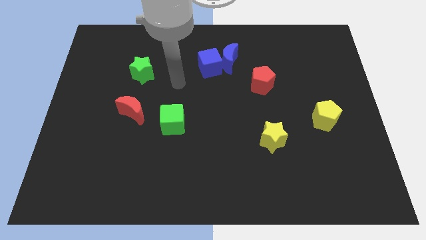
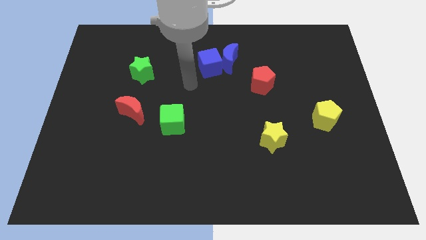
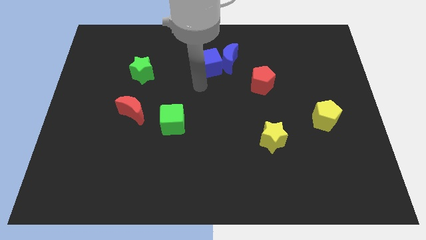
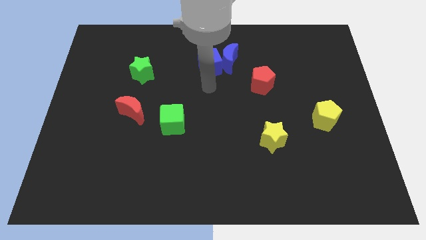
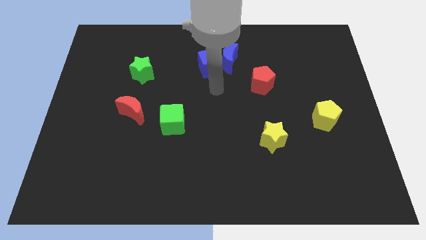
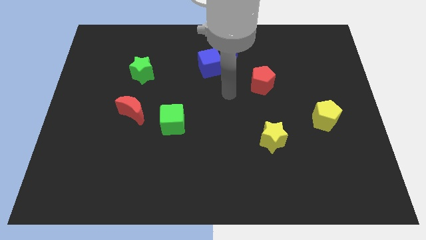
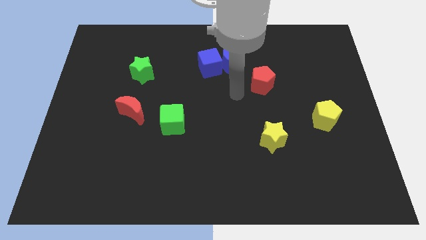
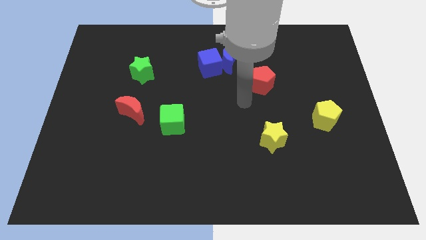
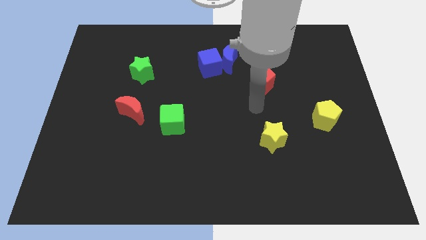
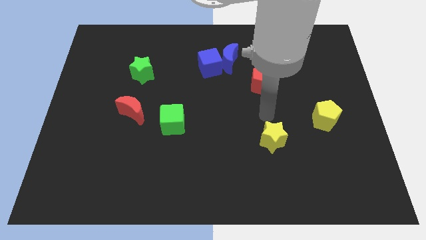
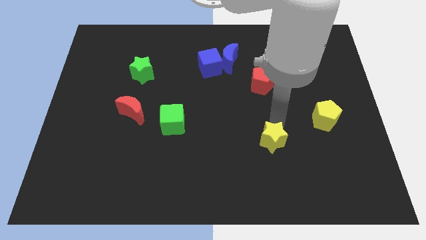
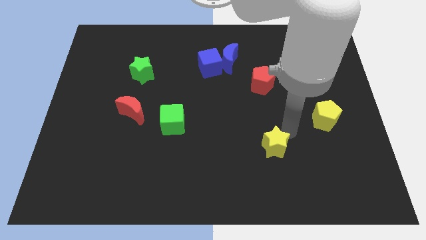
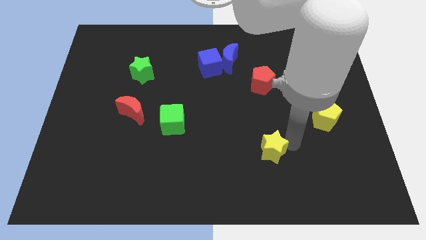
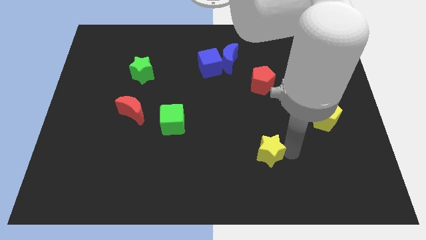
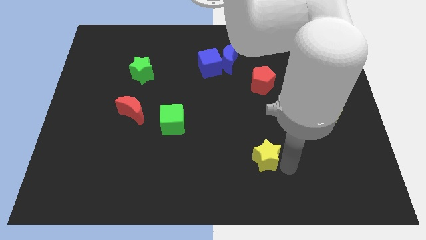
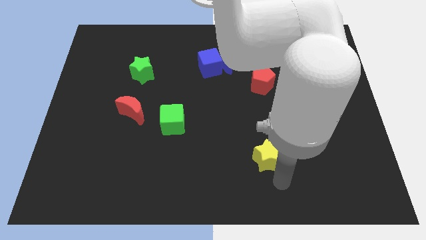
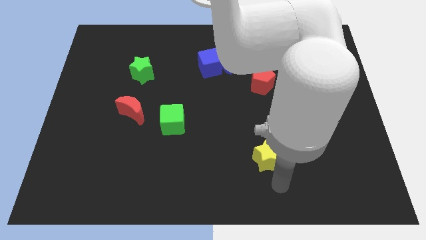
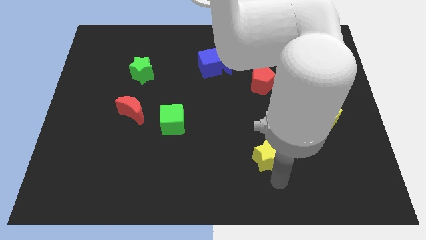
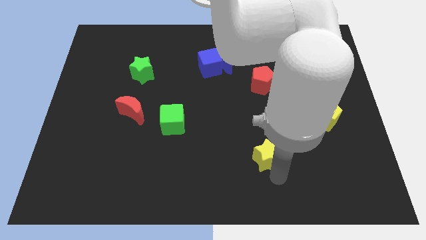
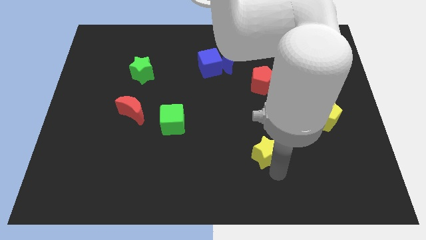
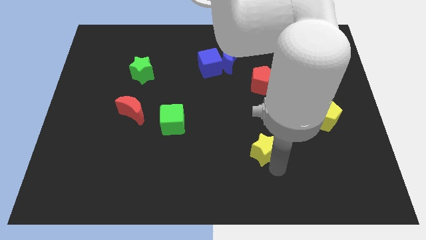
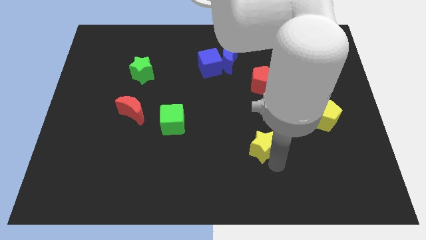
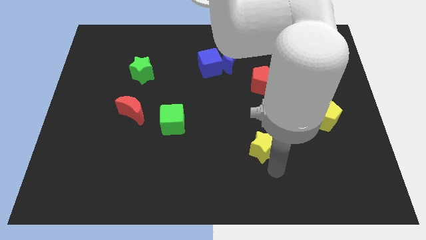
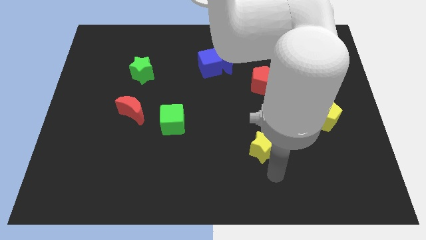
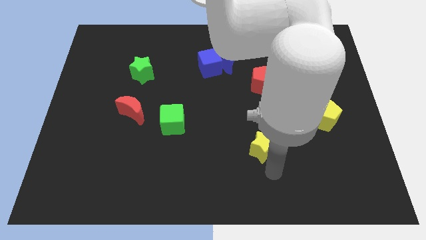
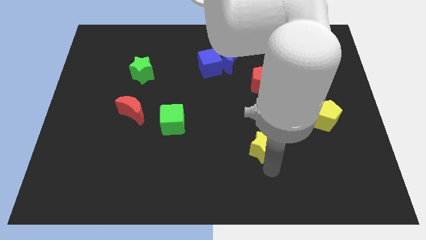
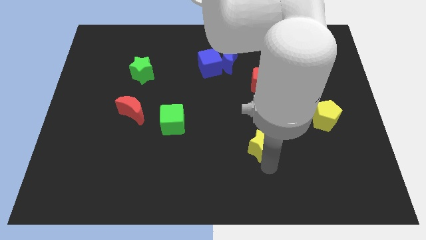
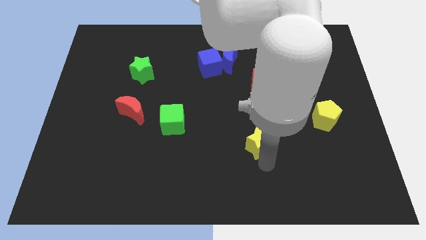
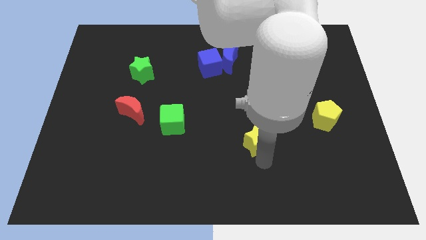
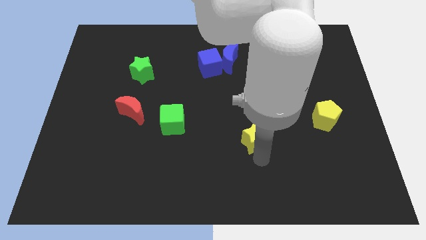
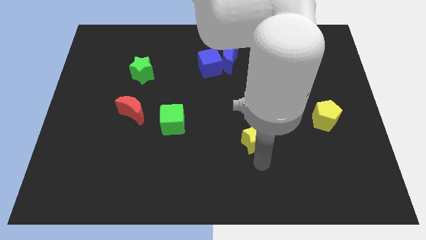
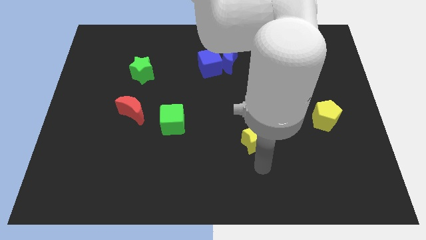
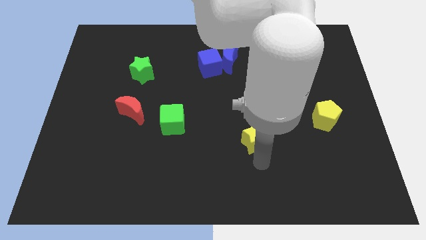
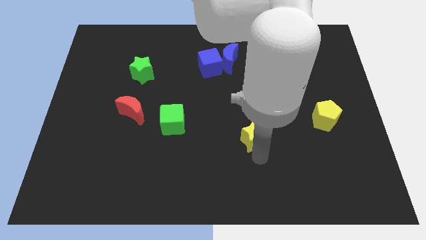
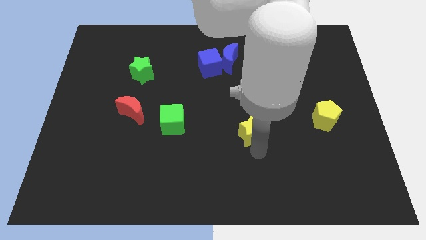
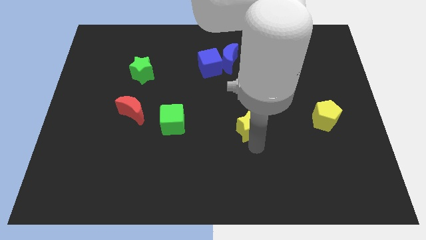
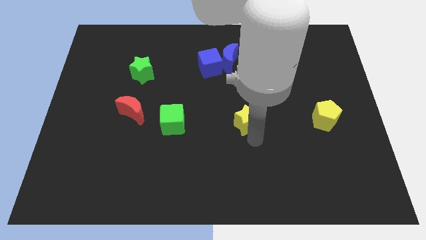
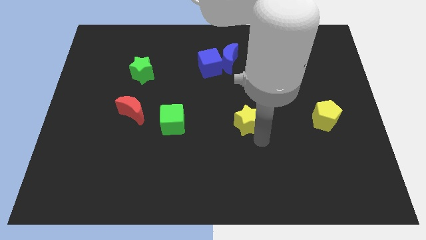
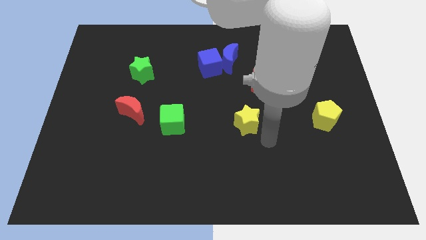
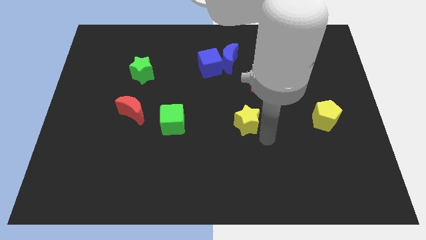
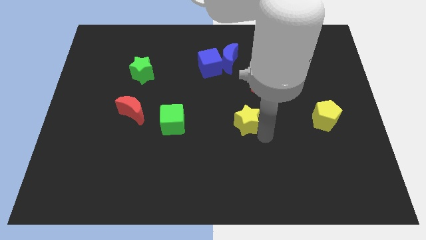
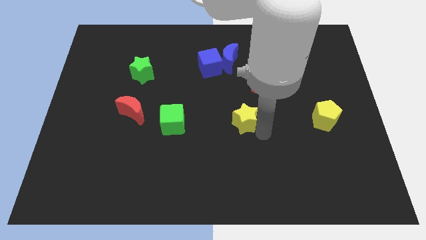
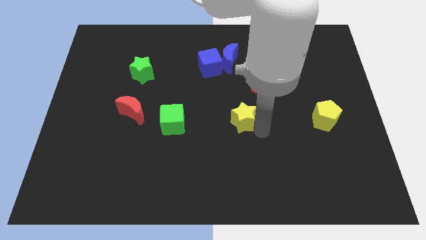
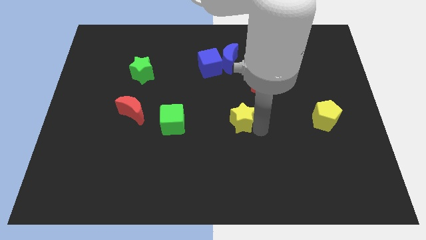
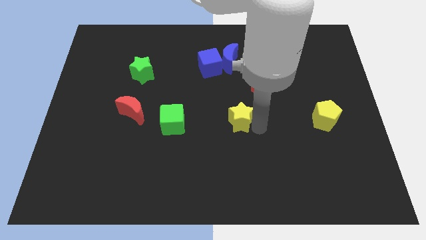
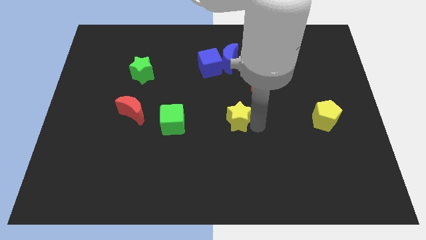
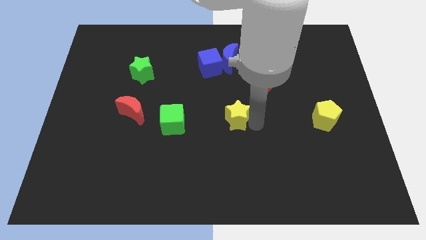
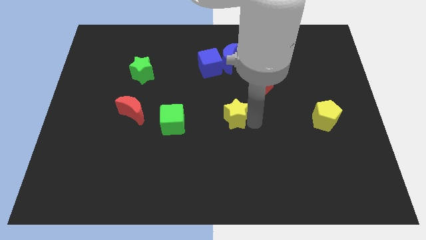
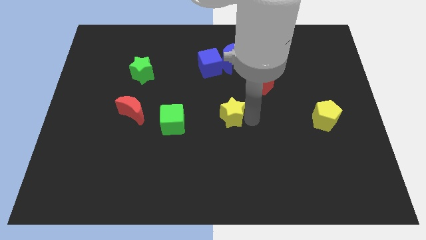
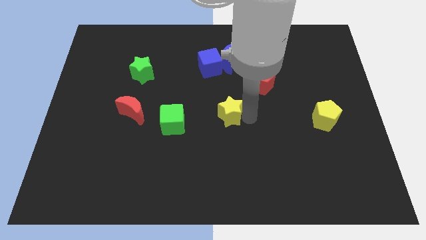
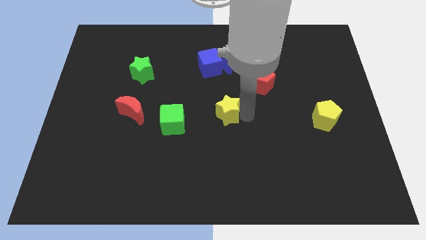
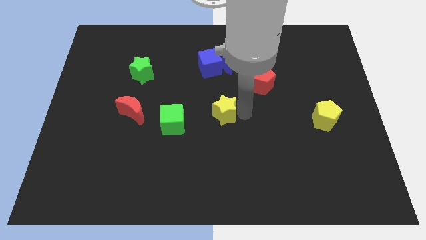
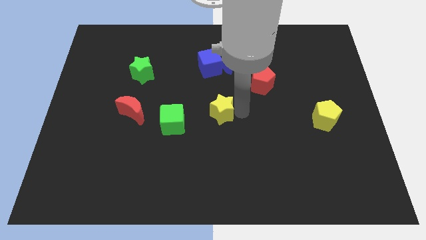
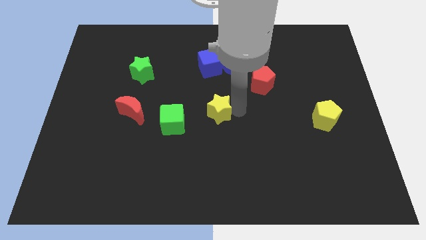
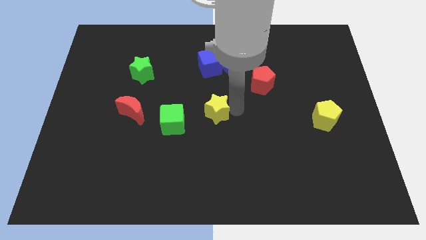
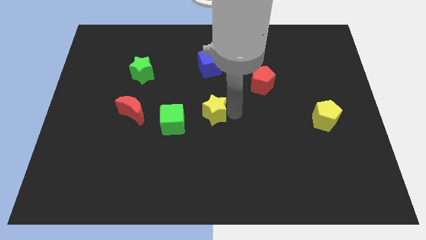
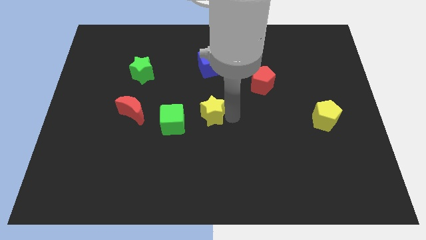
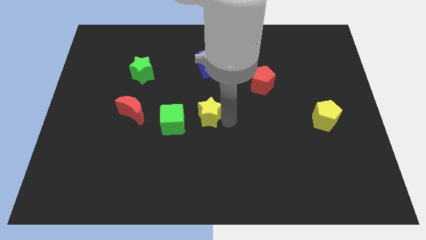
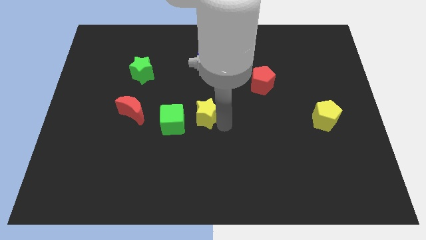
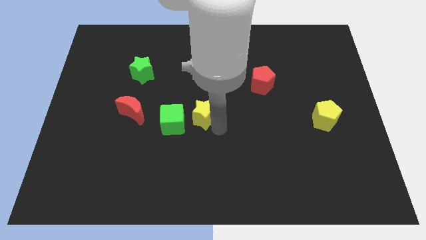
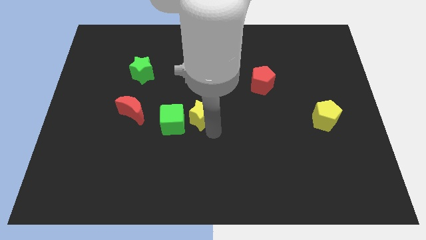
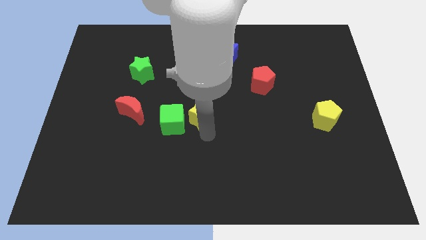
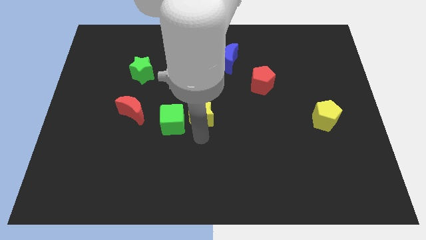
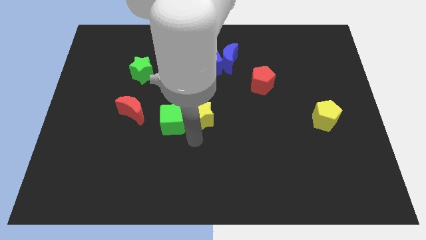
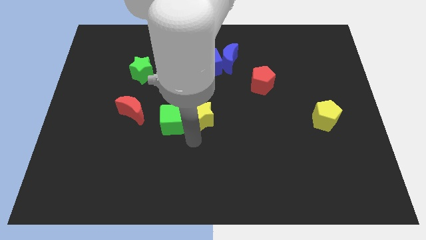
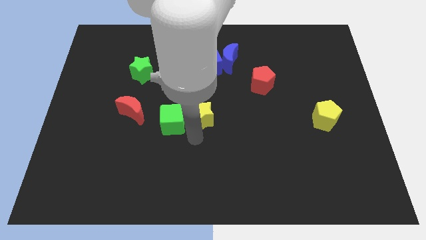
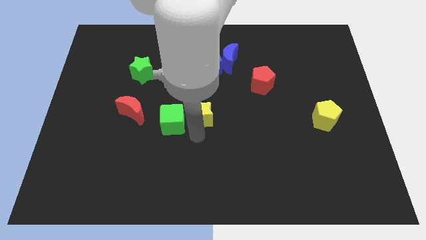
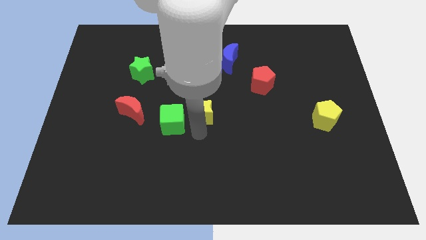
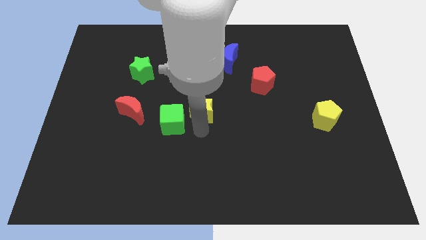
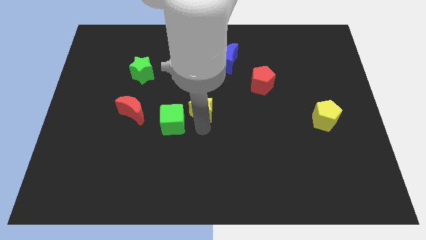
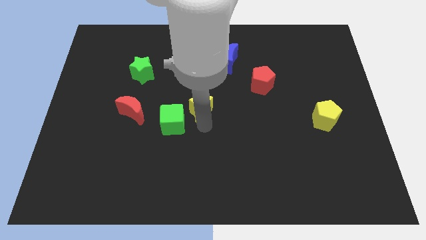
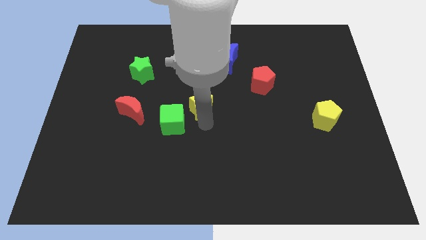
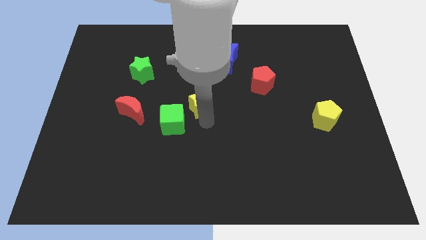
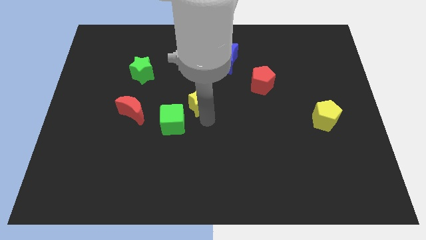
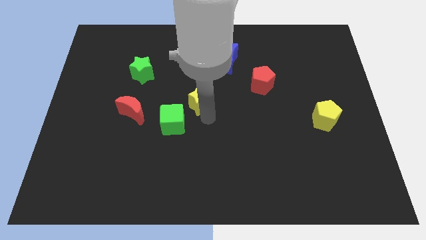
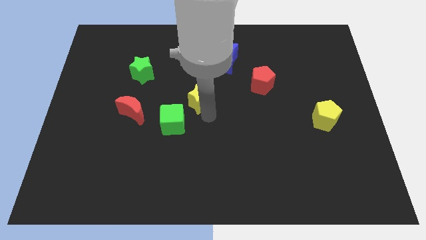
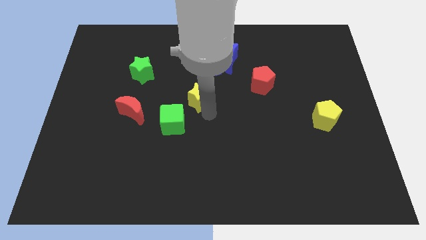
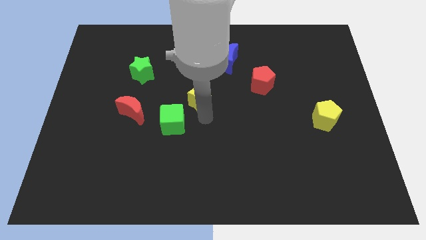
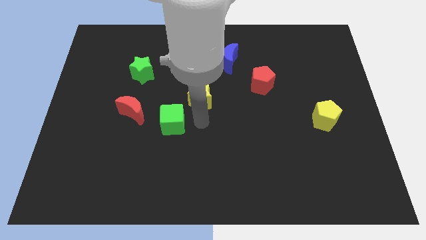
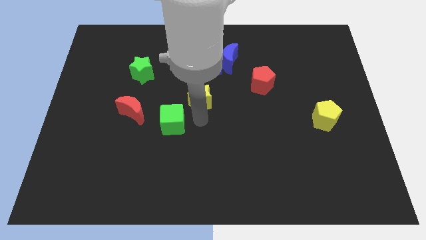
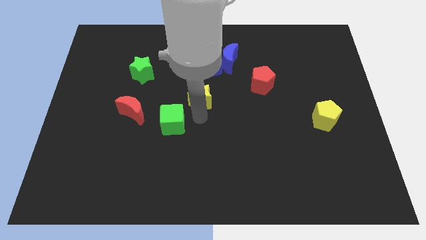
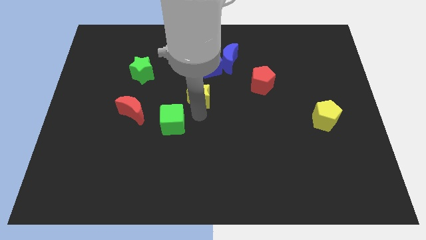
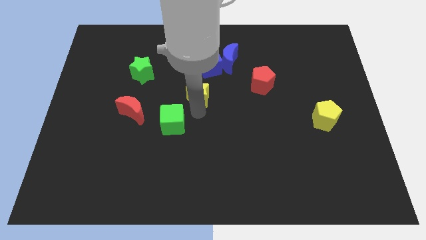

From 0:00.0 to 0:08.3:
push the yellow star upwards and left
